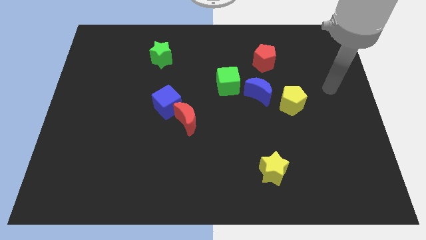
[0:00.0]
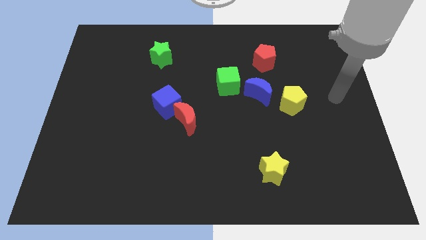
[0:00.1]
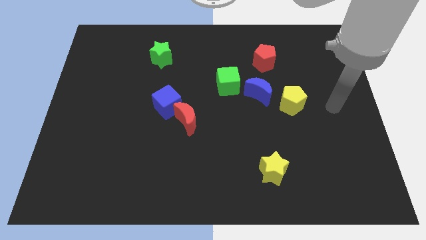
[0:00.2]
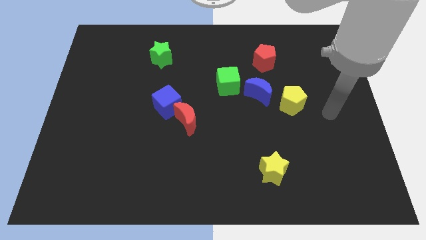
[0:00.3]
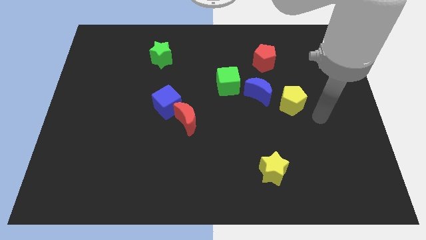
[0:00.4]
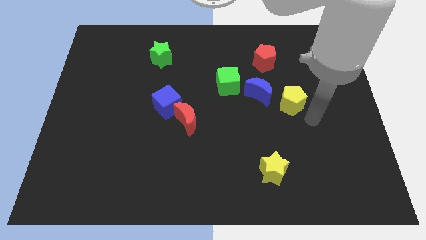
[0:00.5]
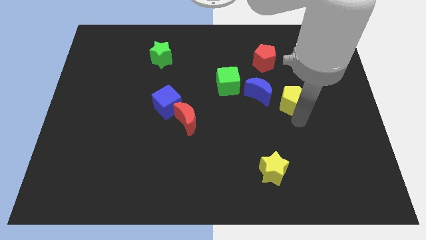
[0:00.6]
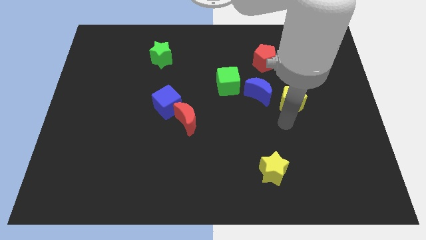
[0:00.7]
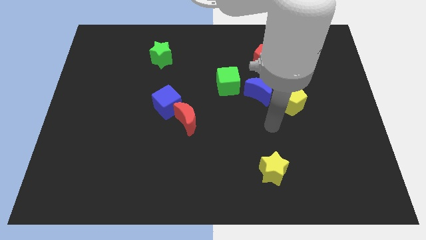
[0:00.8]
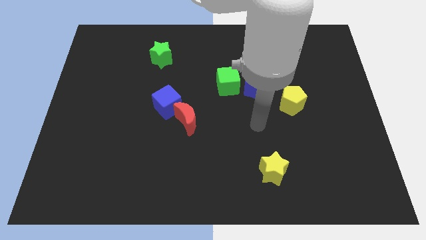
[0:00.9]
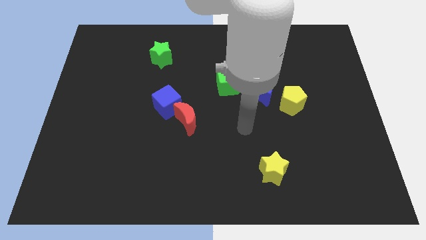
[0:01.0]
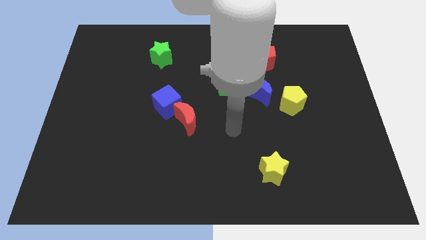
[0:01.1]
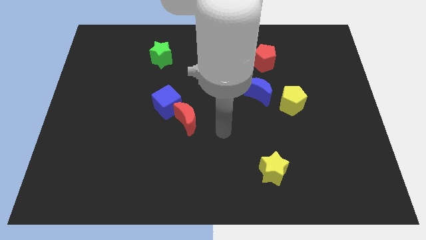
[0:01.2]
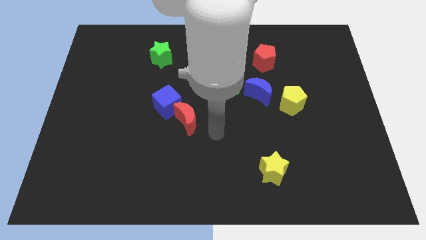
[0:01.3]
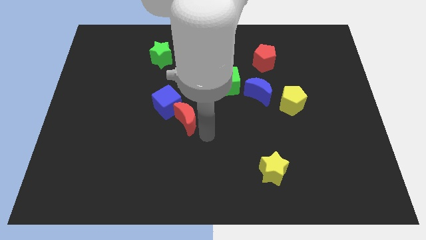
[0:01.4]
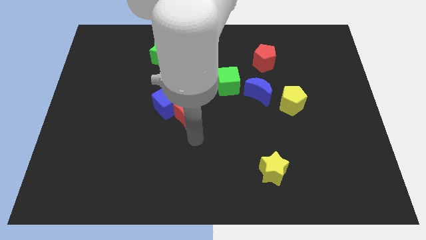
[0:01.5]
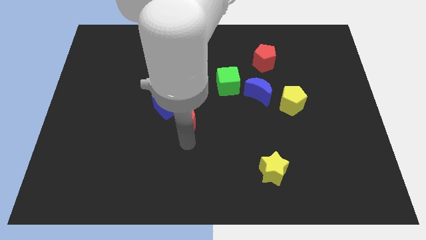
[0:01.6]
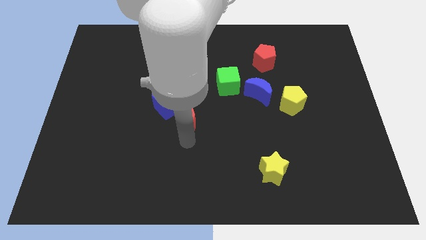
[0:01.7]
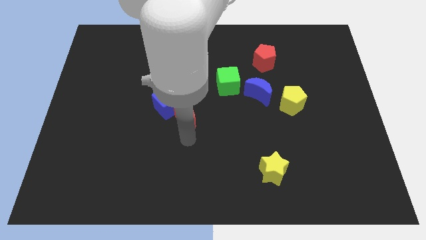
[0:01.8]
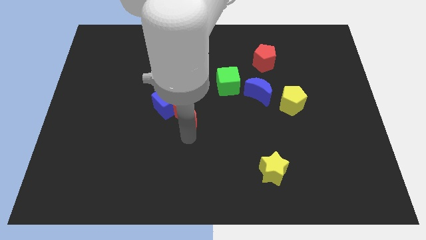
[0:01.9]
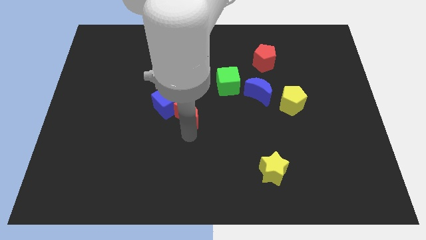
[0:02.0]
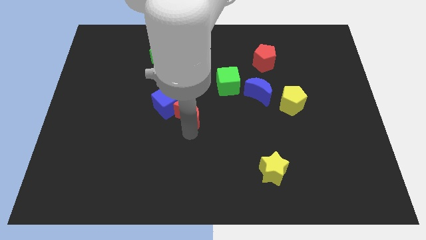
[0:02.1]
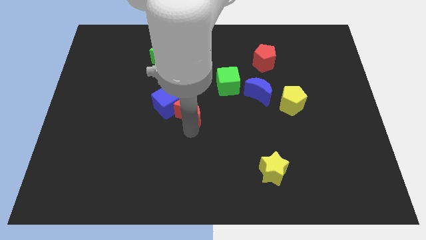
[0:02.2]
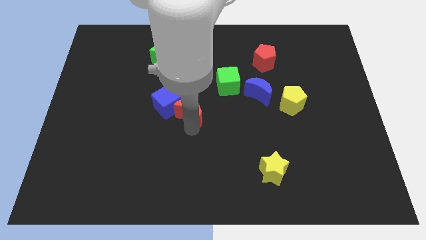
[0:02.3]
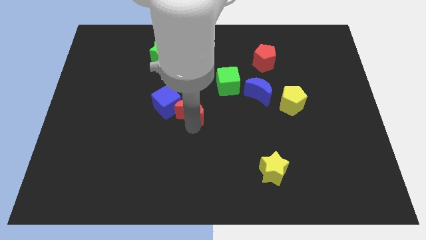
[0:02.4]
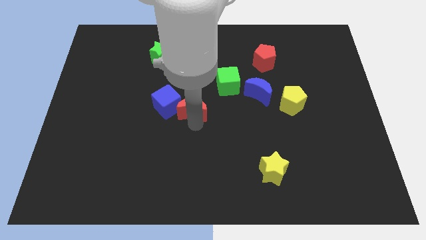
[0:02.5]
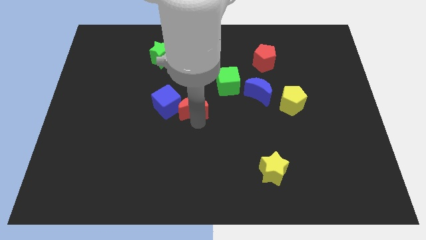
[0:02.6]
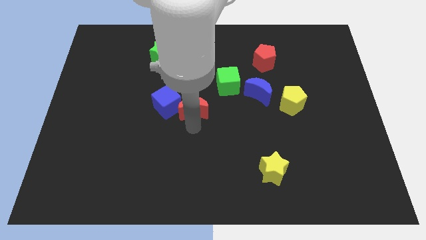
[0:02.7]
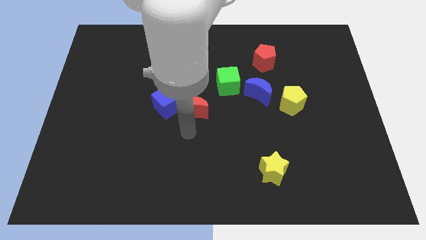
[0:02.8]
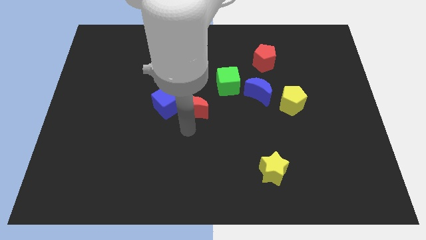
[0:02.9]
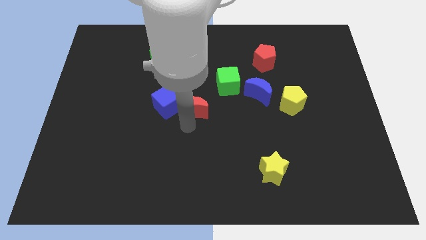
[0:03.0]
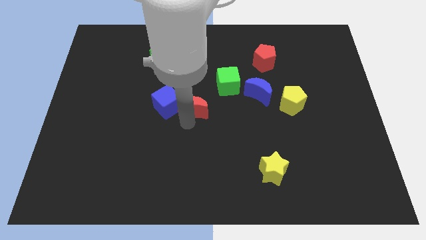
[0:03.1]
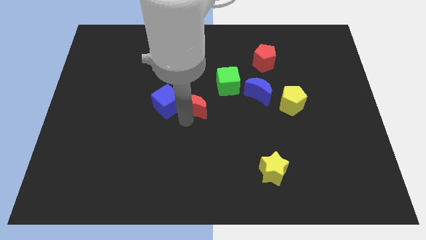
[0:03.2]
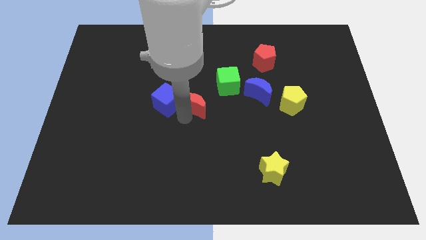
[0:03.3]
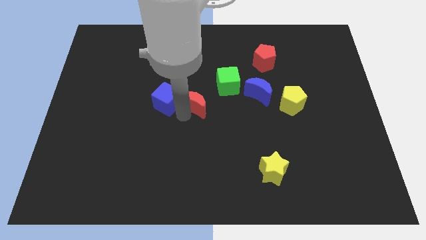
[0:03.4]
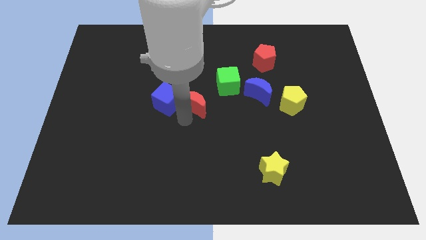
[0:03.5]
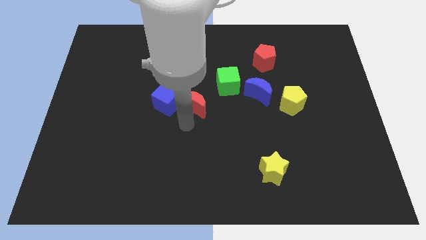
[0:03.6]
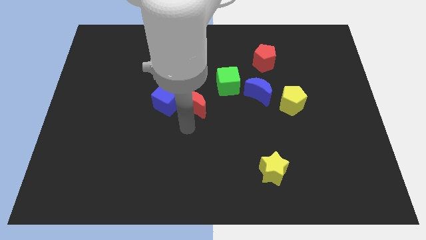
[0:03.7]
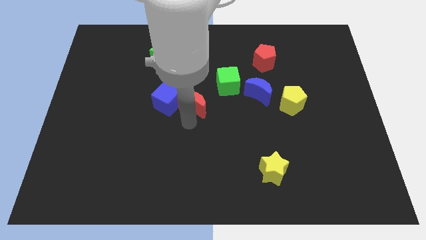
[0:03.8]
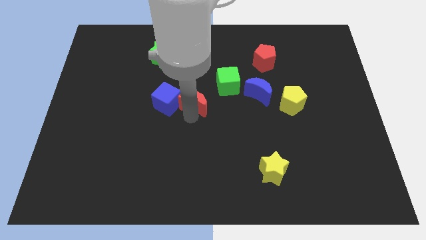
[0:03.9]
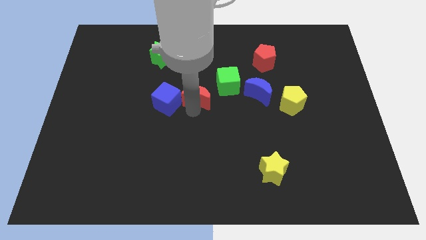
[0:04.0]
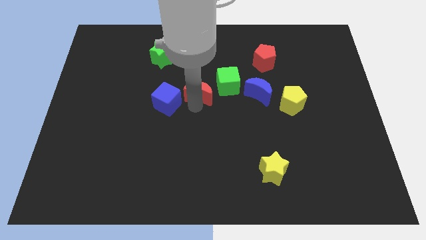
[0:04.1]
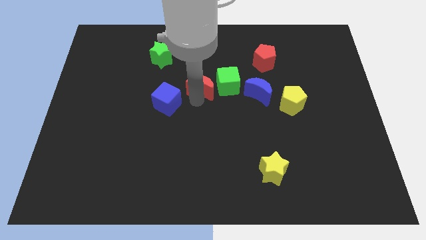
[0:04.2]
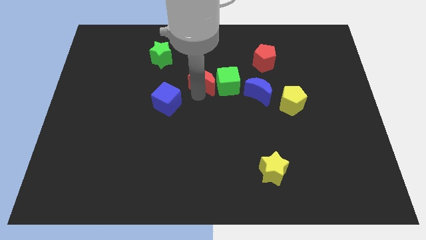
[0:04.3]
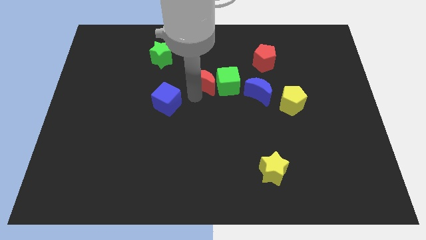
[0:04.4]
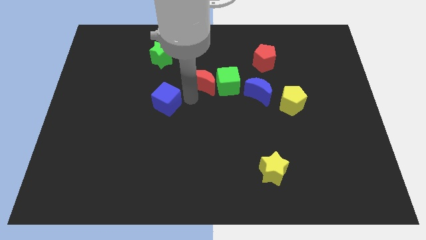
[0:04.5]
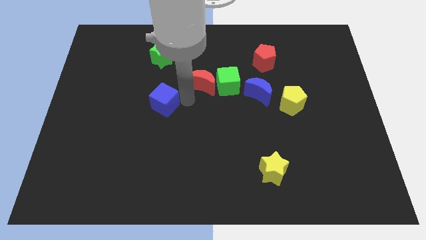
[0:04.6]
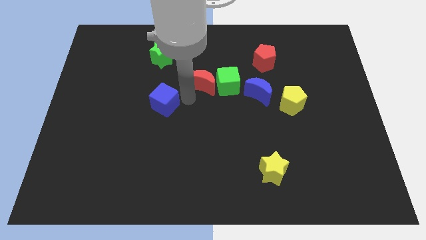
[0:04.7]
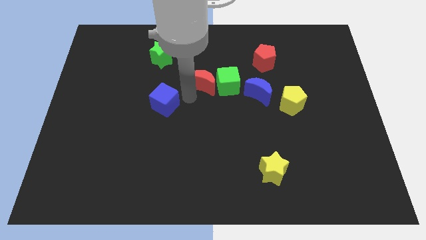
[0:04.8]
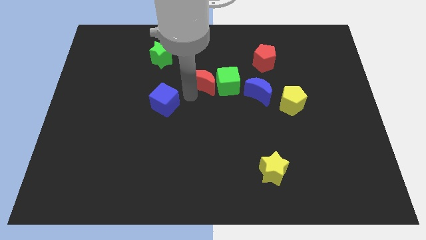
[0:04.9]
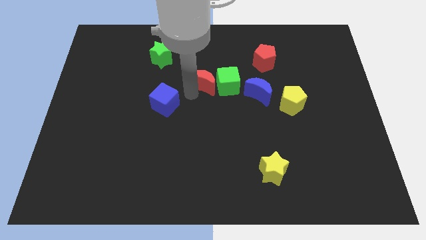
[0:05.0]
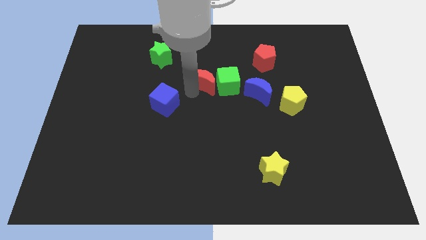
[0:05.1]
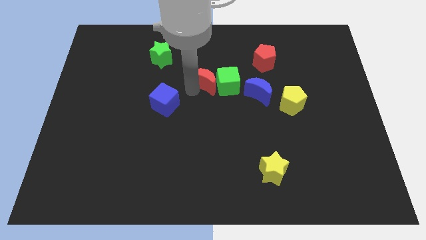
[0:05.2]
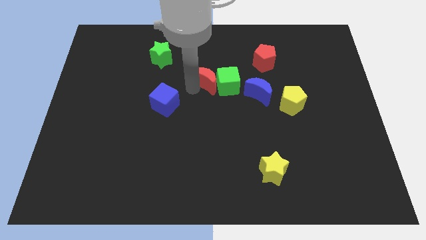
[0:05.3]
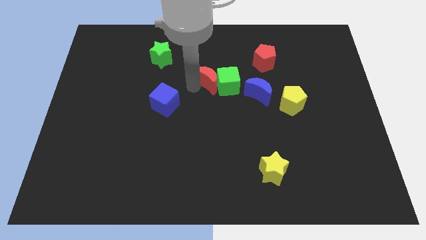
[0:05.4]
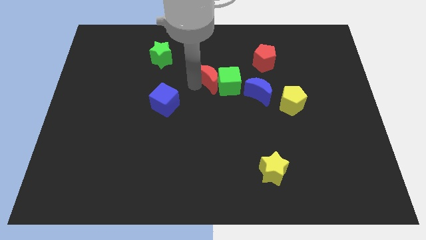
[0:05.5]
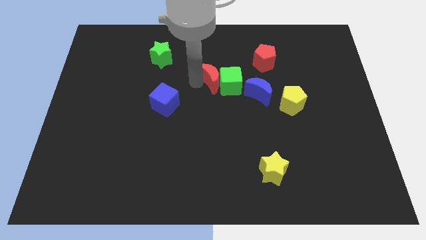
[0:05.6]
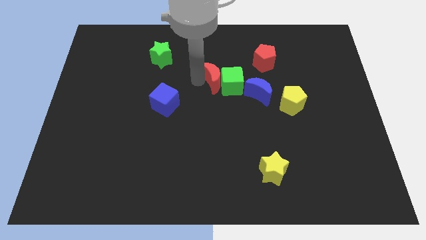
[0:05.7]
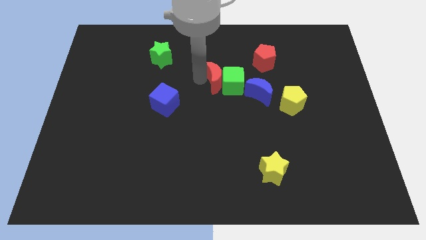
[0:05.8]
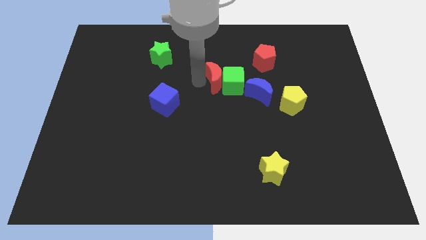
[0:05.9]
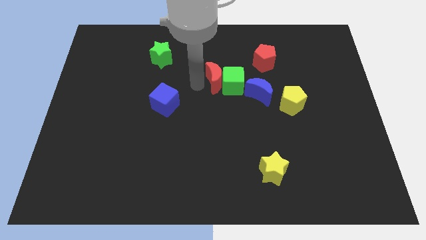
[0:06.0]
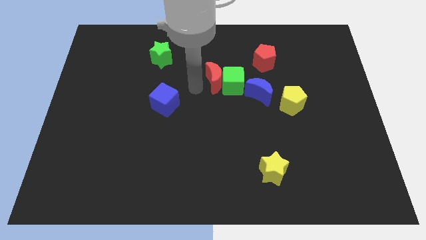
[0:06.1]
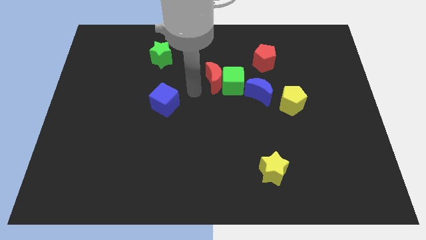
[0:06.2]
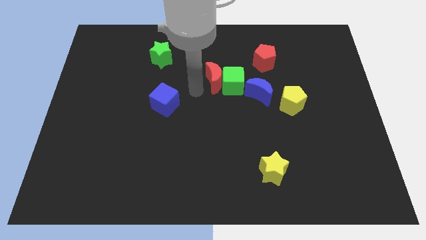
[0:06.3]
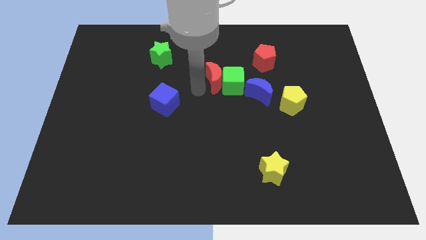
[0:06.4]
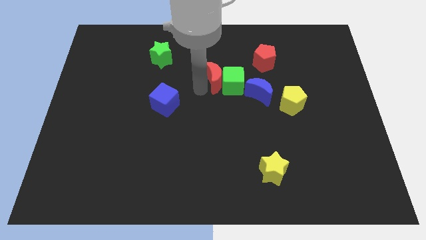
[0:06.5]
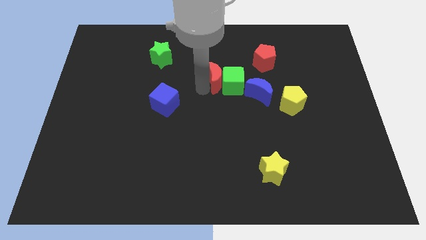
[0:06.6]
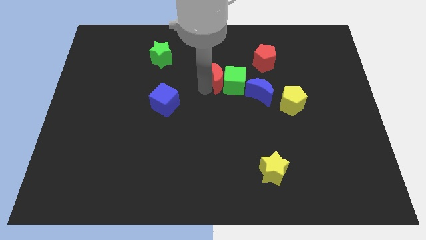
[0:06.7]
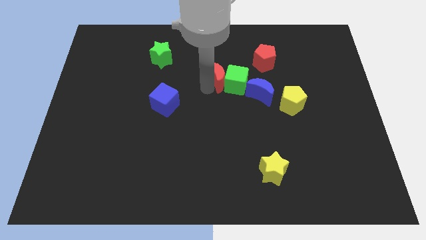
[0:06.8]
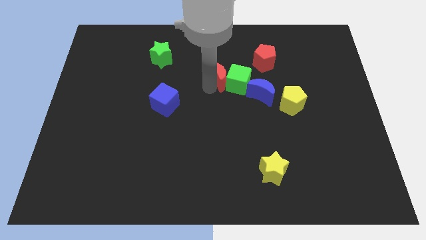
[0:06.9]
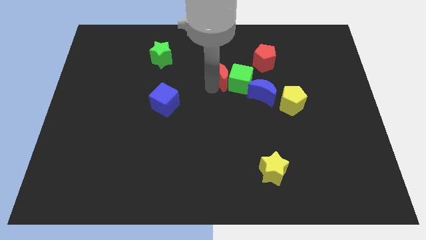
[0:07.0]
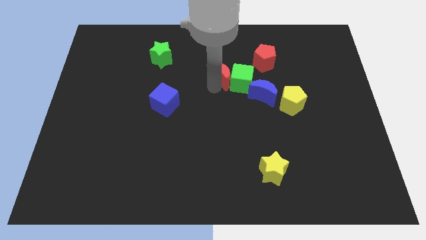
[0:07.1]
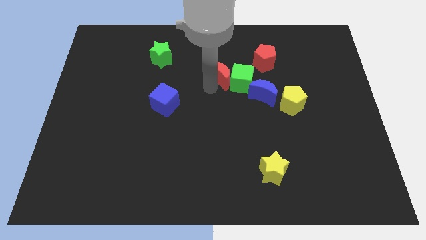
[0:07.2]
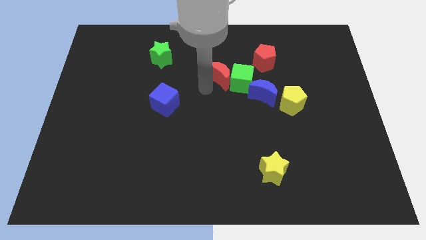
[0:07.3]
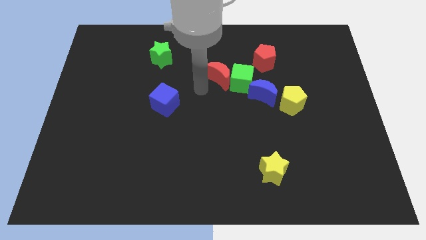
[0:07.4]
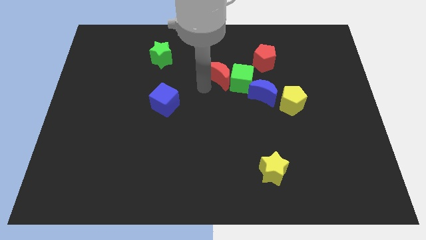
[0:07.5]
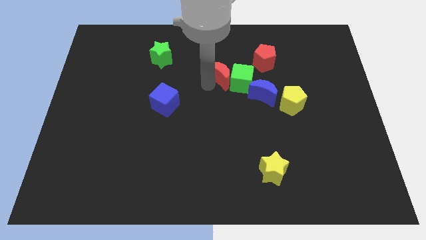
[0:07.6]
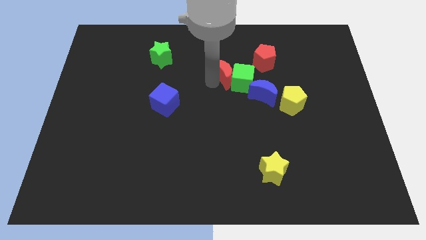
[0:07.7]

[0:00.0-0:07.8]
push the red moon to the bottom left side of the red pentagon
